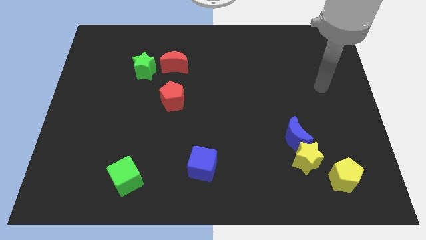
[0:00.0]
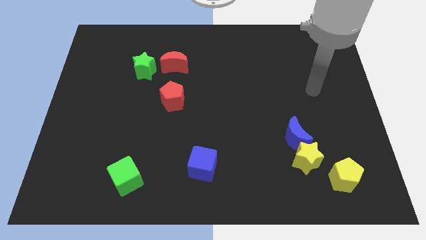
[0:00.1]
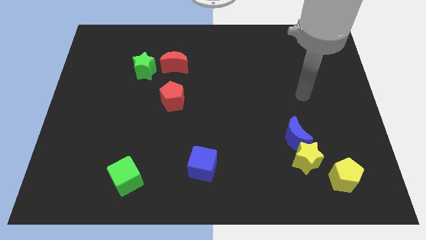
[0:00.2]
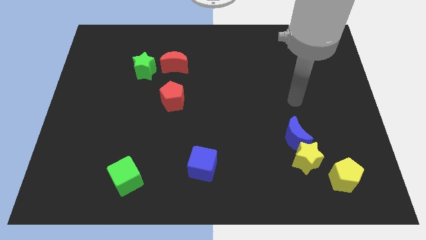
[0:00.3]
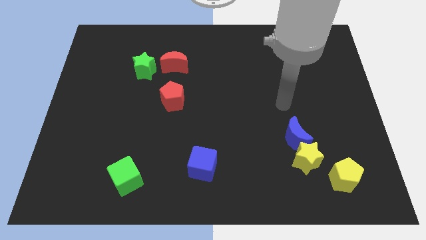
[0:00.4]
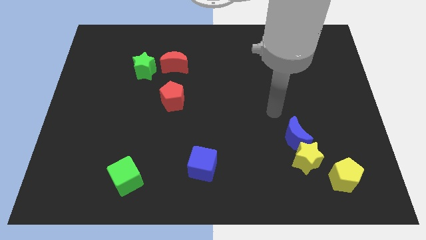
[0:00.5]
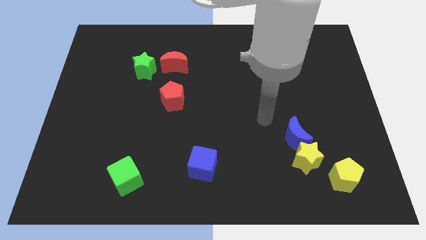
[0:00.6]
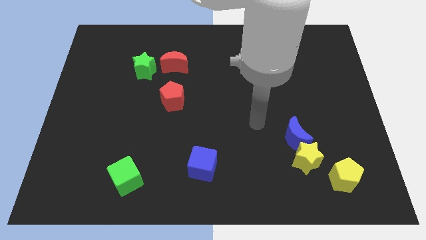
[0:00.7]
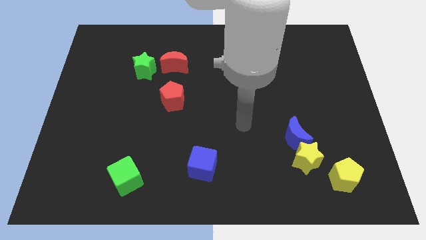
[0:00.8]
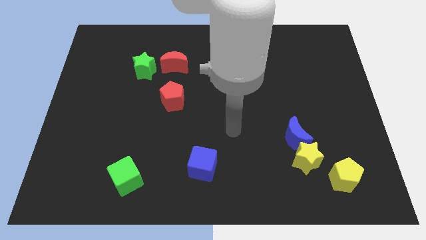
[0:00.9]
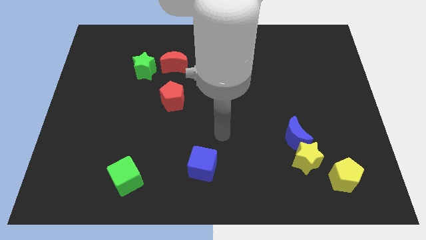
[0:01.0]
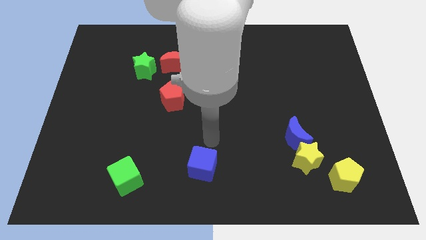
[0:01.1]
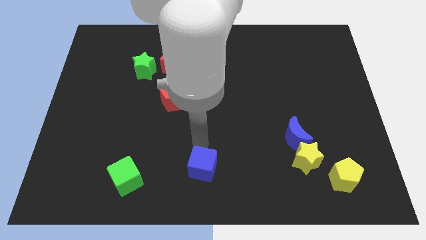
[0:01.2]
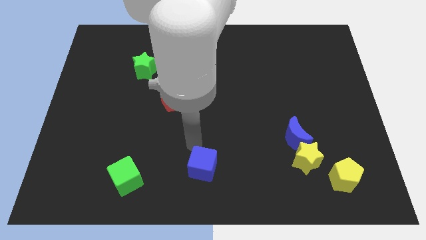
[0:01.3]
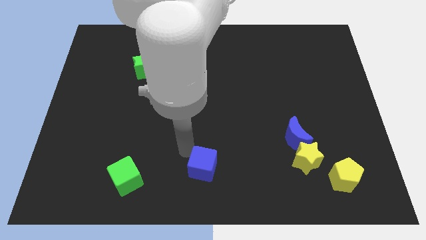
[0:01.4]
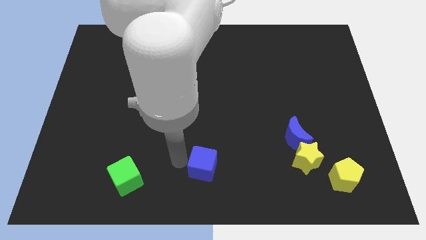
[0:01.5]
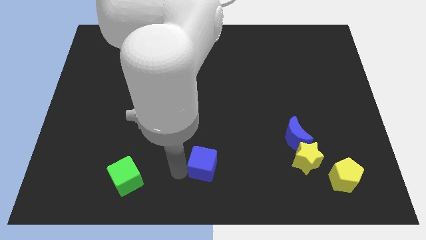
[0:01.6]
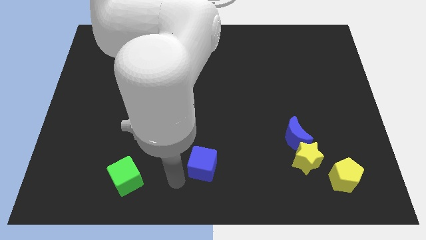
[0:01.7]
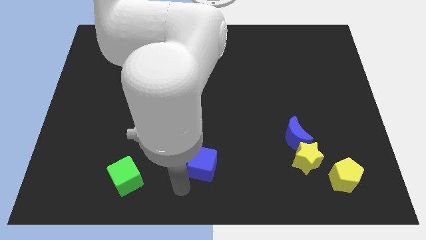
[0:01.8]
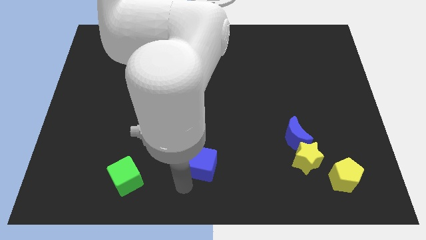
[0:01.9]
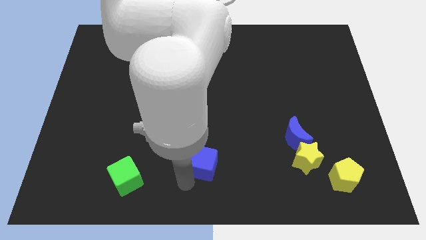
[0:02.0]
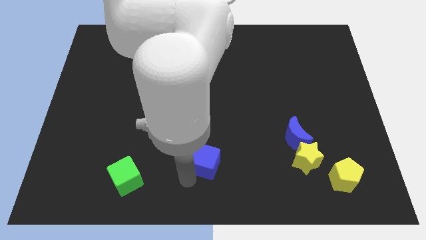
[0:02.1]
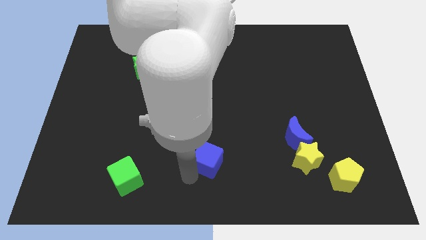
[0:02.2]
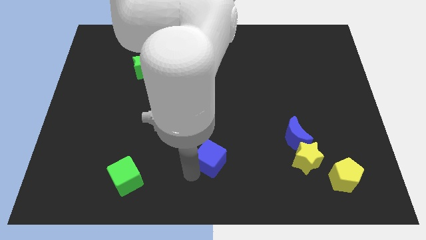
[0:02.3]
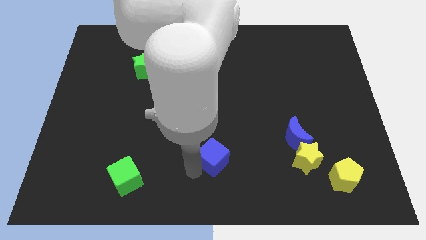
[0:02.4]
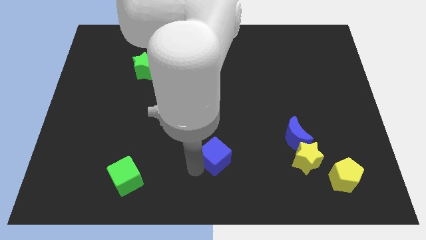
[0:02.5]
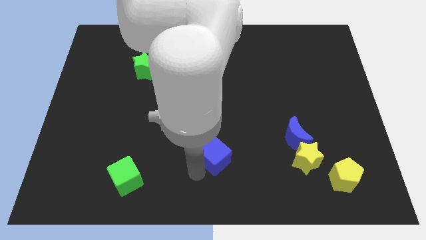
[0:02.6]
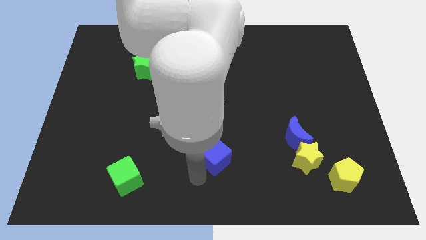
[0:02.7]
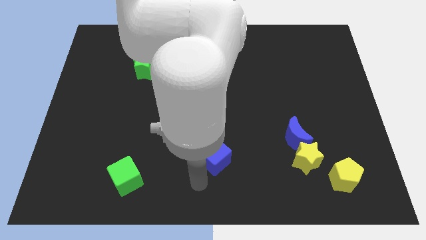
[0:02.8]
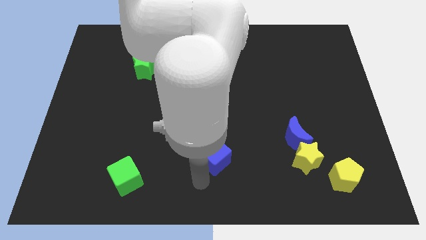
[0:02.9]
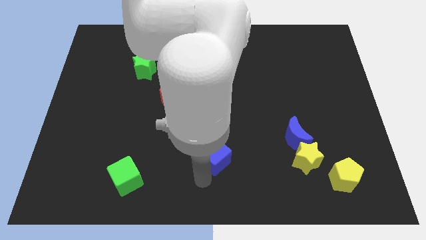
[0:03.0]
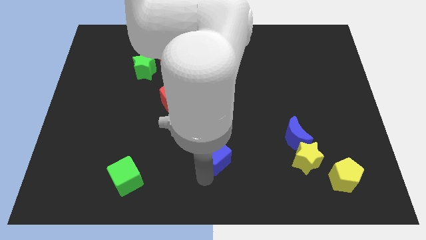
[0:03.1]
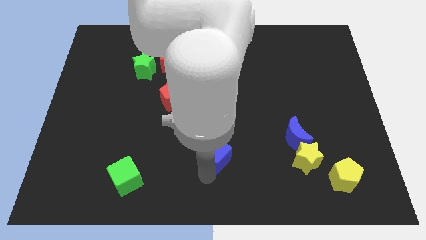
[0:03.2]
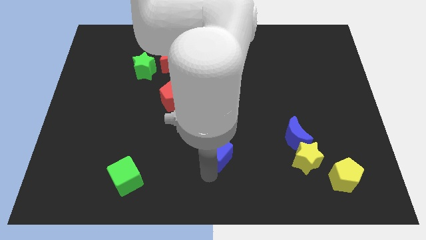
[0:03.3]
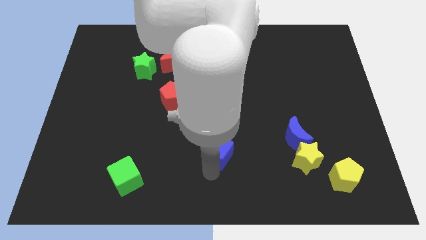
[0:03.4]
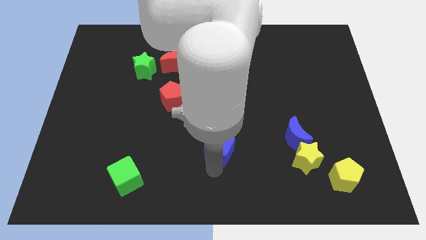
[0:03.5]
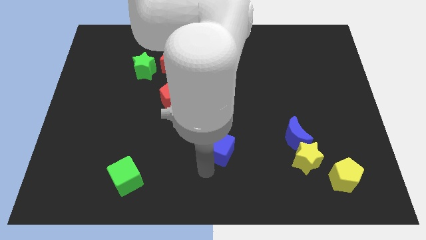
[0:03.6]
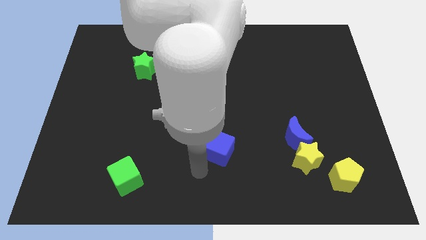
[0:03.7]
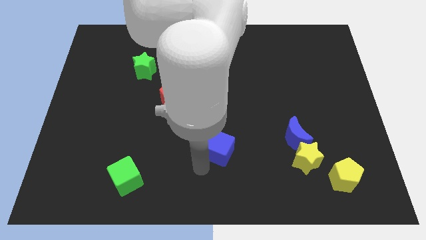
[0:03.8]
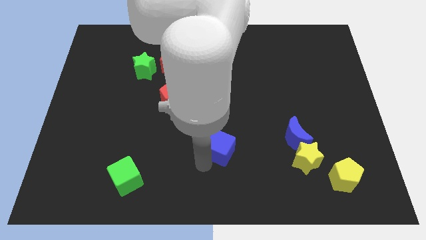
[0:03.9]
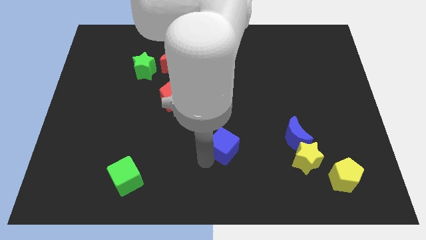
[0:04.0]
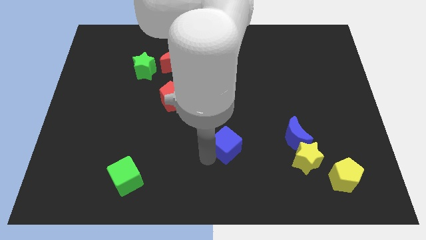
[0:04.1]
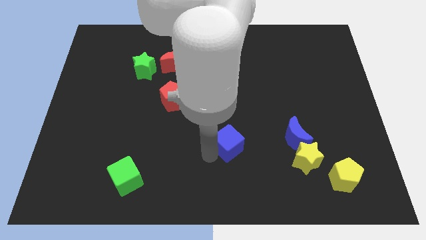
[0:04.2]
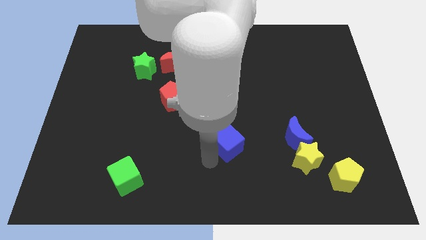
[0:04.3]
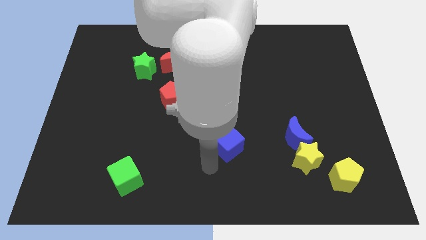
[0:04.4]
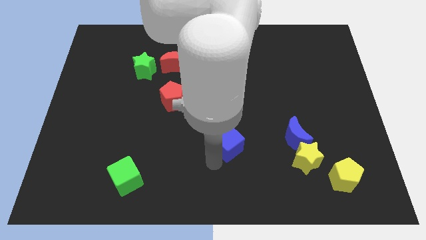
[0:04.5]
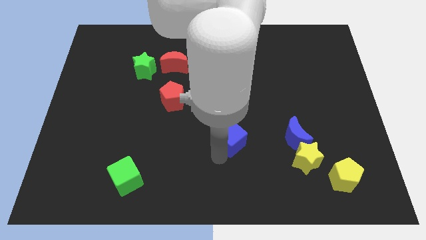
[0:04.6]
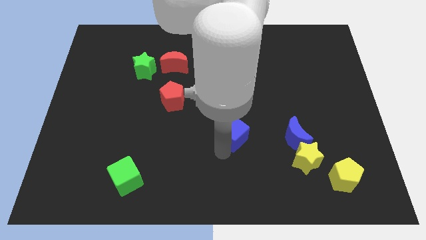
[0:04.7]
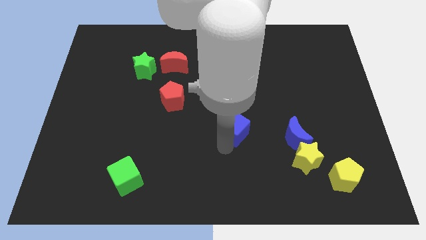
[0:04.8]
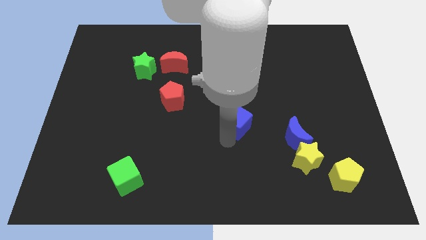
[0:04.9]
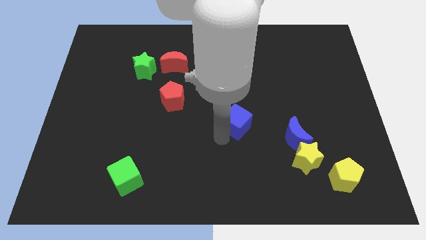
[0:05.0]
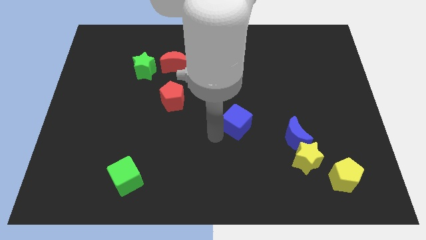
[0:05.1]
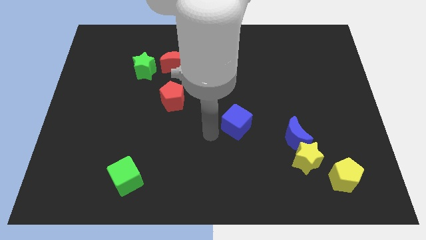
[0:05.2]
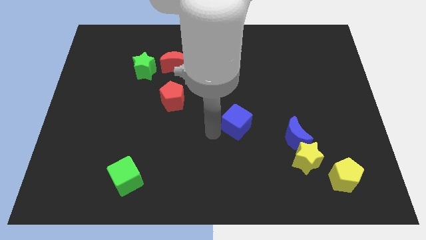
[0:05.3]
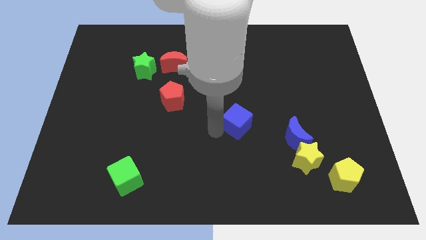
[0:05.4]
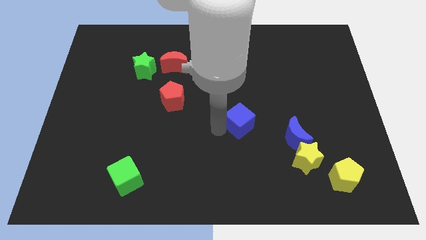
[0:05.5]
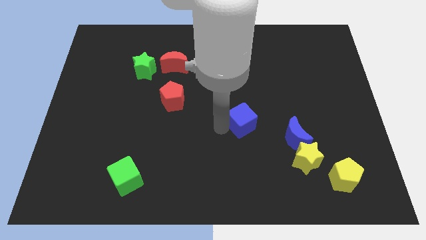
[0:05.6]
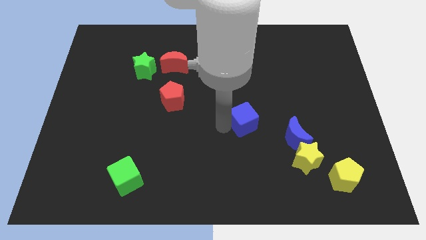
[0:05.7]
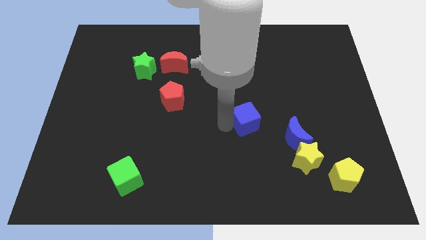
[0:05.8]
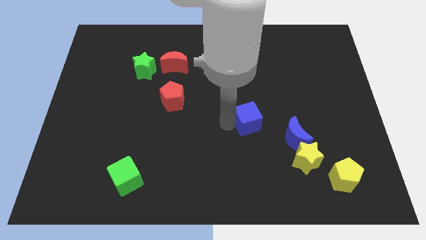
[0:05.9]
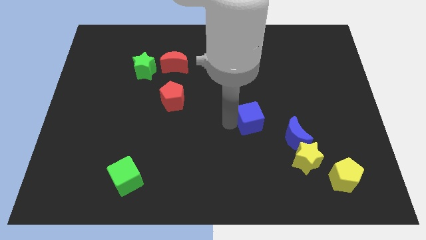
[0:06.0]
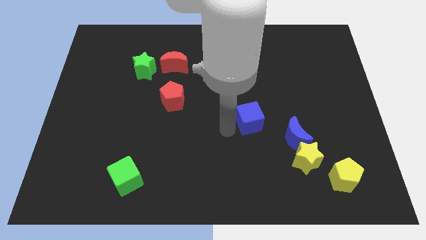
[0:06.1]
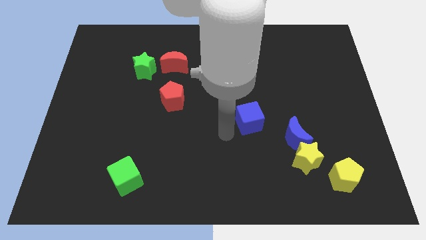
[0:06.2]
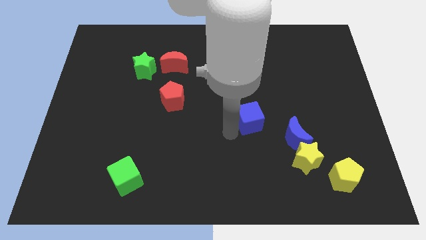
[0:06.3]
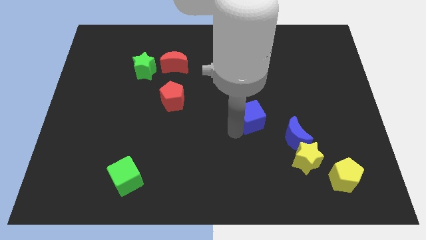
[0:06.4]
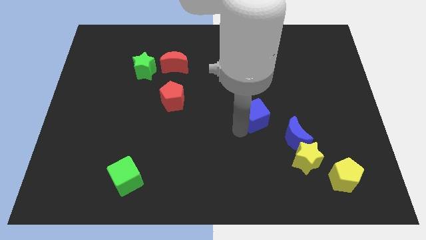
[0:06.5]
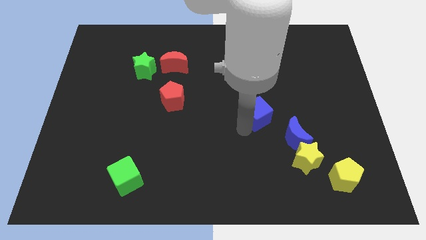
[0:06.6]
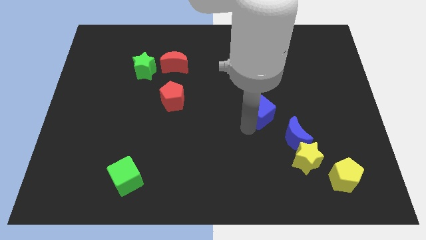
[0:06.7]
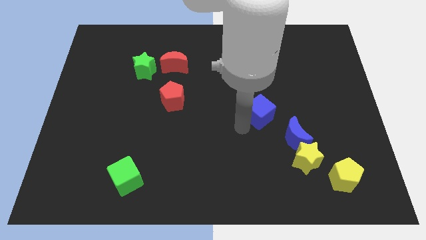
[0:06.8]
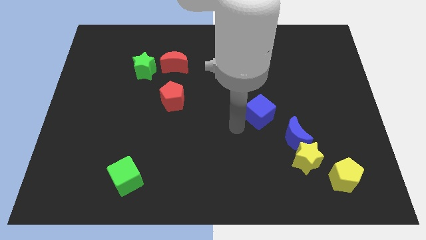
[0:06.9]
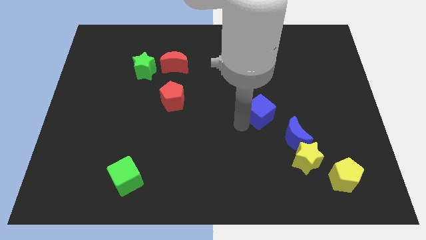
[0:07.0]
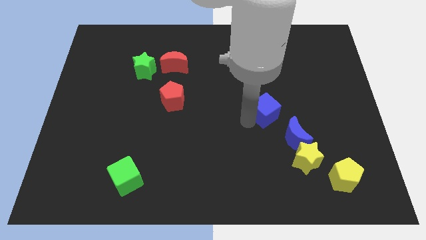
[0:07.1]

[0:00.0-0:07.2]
move the blue cube upwards and to the right diagonally

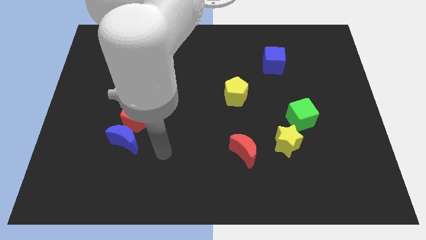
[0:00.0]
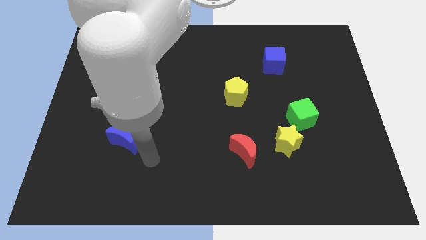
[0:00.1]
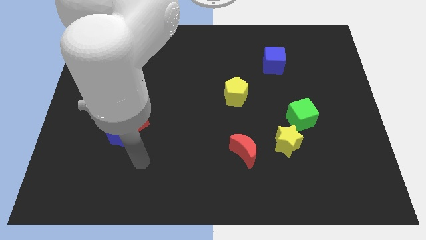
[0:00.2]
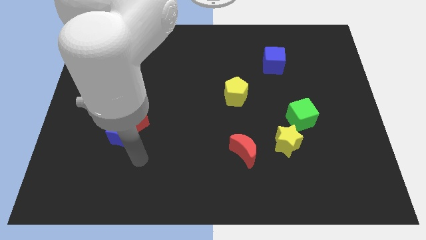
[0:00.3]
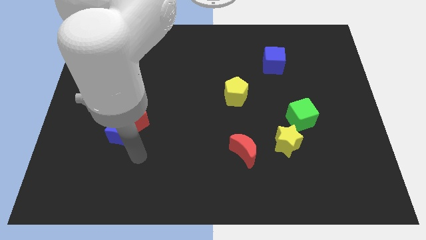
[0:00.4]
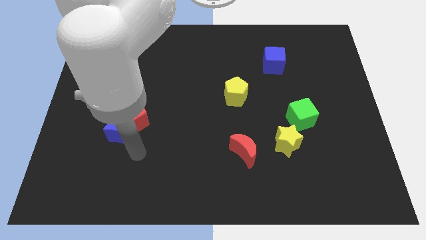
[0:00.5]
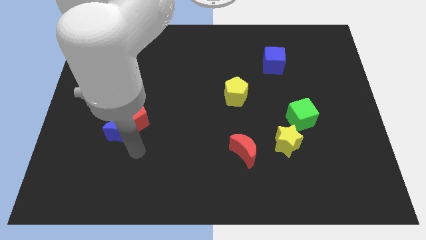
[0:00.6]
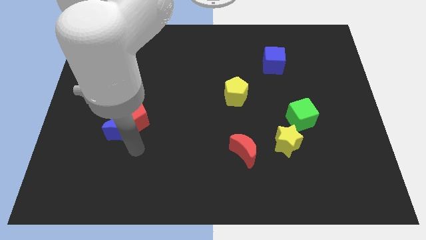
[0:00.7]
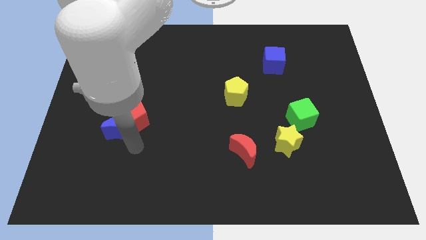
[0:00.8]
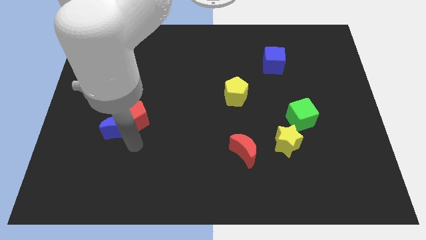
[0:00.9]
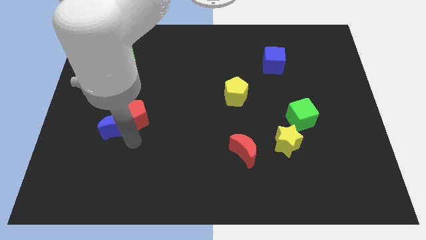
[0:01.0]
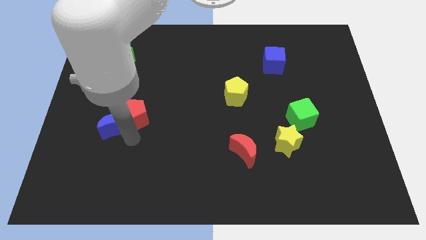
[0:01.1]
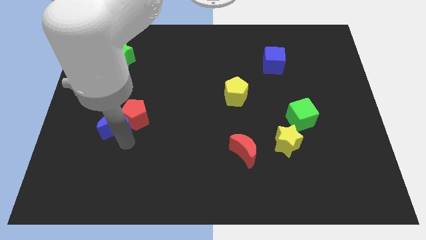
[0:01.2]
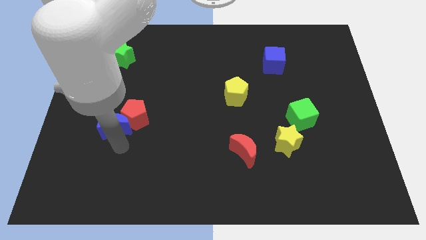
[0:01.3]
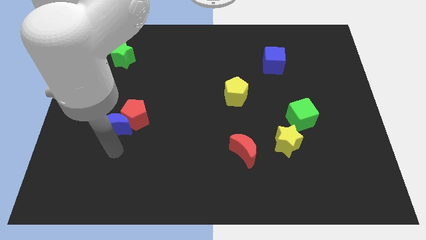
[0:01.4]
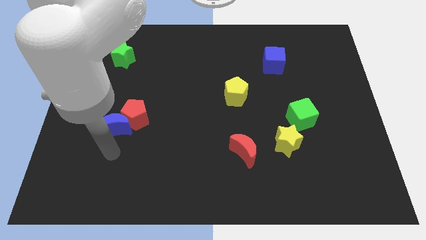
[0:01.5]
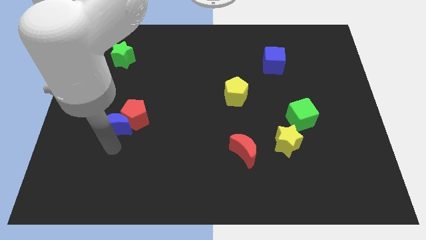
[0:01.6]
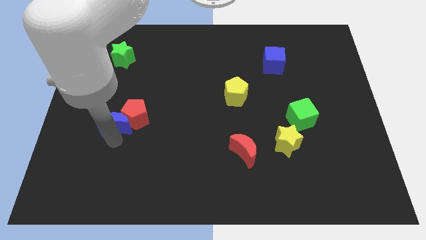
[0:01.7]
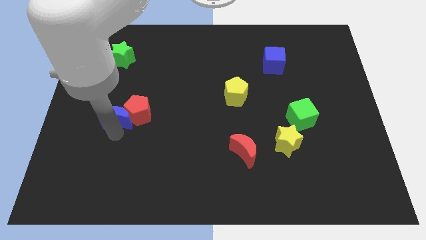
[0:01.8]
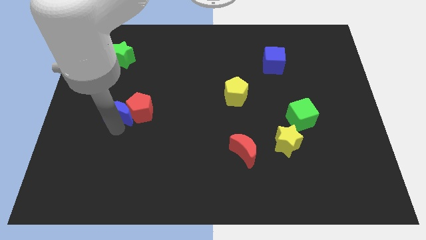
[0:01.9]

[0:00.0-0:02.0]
slightly slide the blue moon upwards
